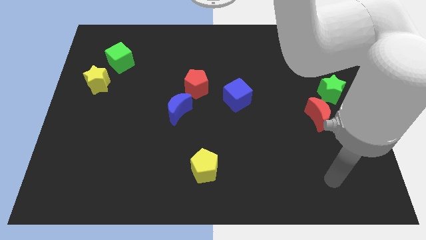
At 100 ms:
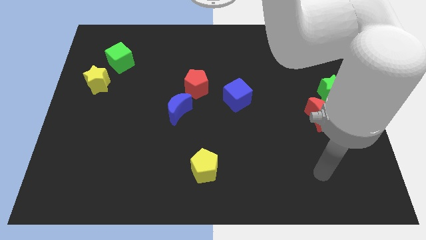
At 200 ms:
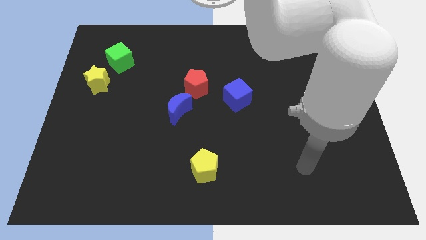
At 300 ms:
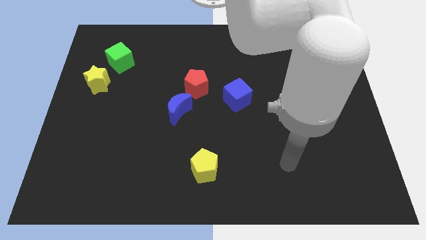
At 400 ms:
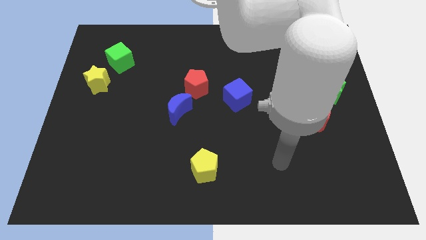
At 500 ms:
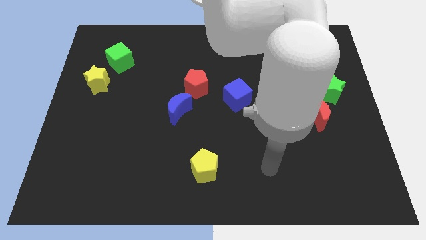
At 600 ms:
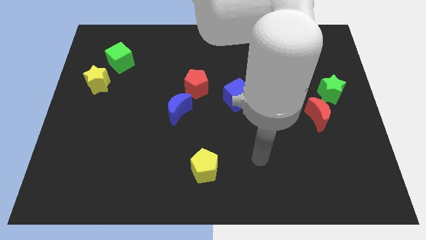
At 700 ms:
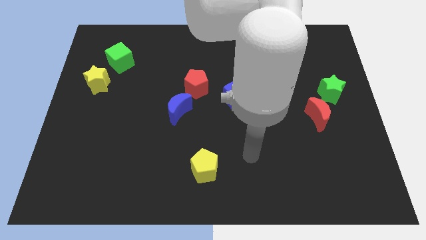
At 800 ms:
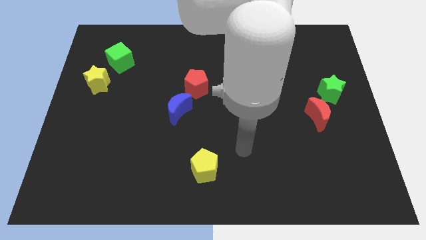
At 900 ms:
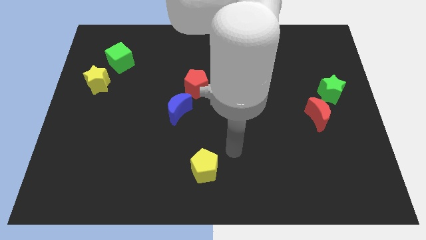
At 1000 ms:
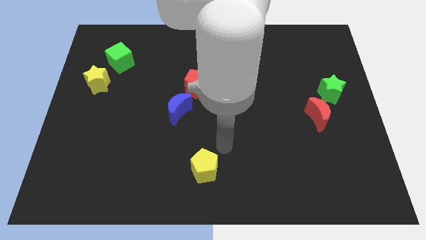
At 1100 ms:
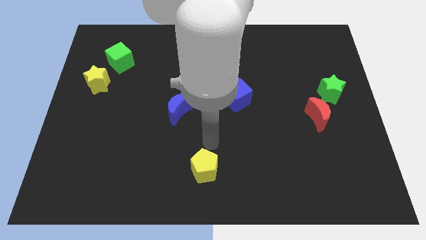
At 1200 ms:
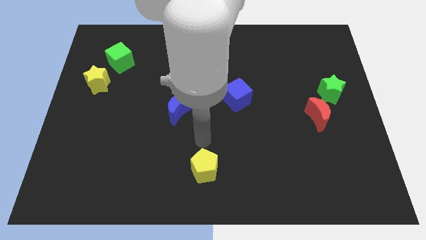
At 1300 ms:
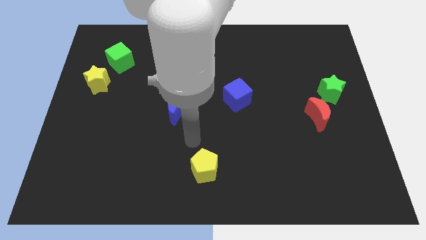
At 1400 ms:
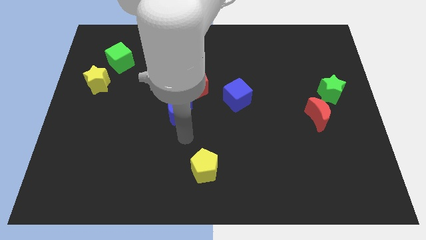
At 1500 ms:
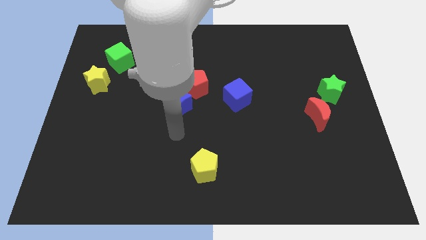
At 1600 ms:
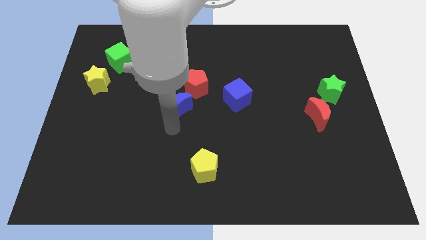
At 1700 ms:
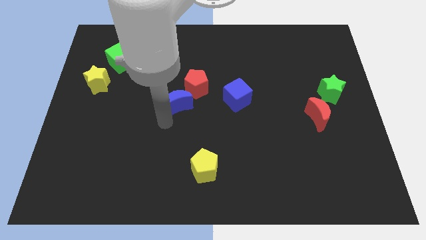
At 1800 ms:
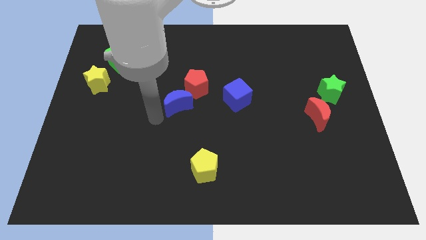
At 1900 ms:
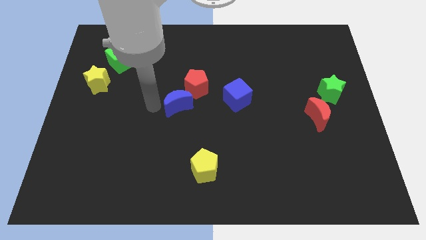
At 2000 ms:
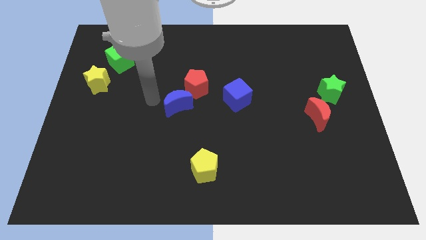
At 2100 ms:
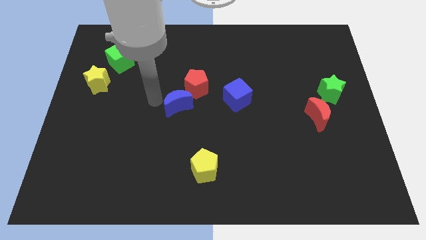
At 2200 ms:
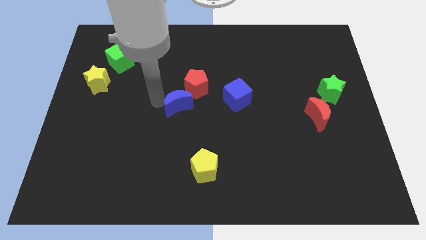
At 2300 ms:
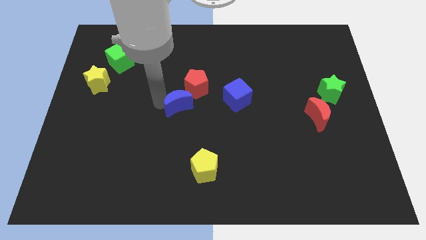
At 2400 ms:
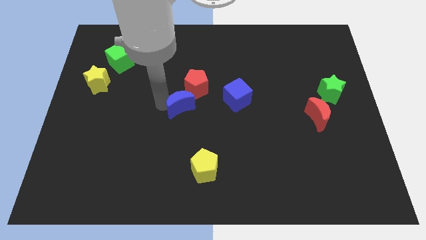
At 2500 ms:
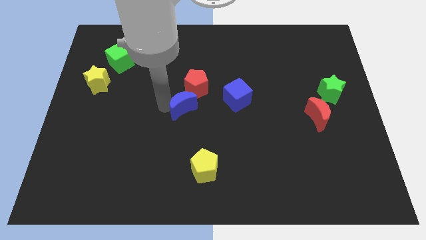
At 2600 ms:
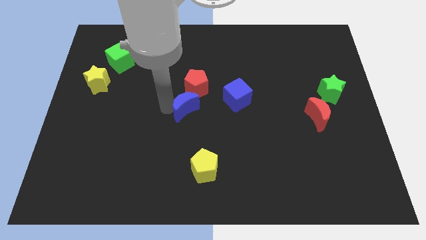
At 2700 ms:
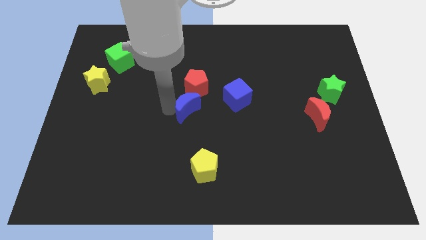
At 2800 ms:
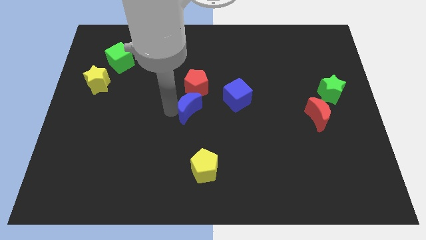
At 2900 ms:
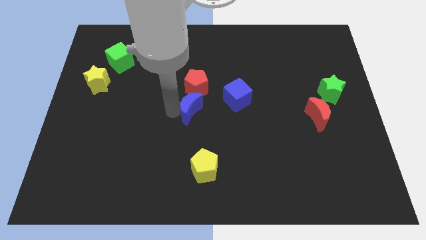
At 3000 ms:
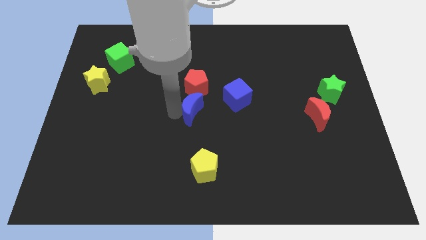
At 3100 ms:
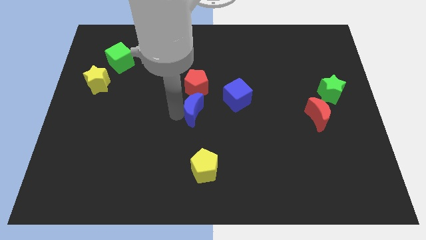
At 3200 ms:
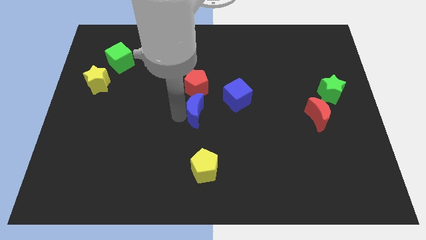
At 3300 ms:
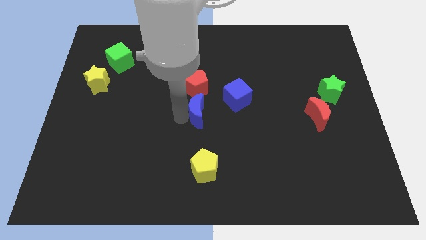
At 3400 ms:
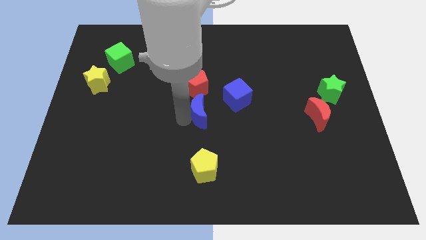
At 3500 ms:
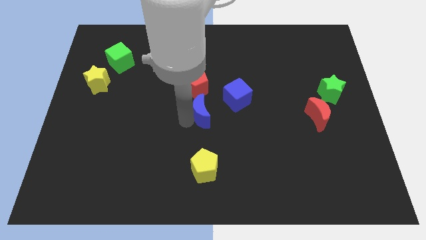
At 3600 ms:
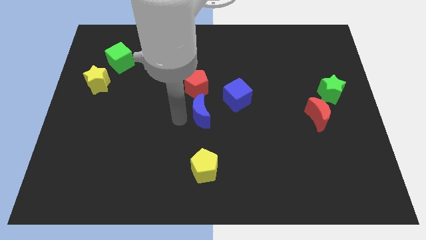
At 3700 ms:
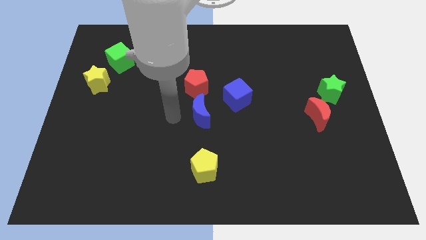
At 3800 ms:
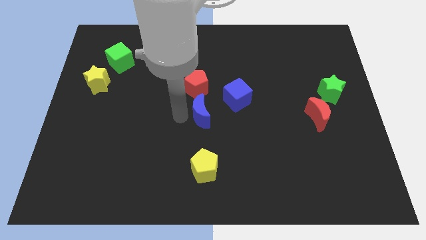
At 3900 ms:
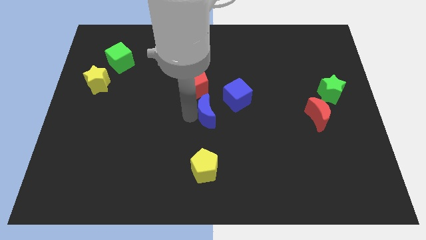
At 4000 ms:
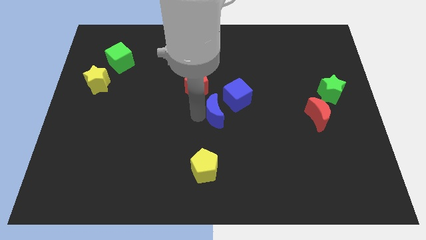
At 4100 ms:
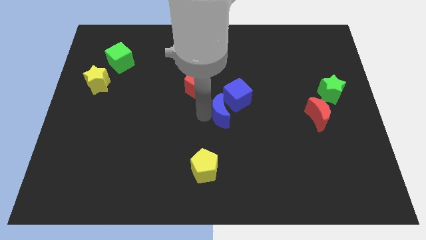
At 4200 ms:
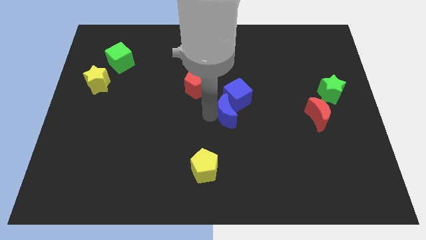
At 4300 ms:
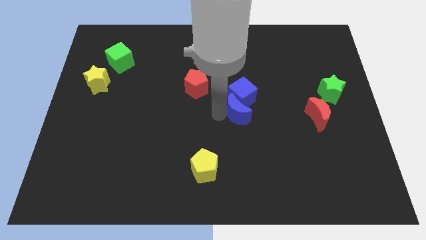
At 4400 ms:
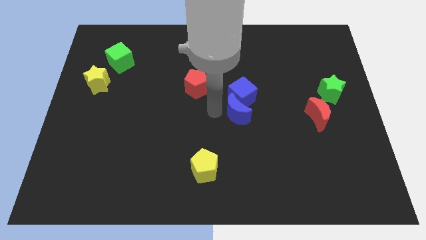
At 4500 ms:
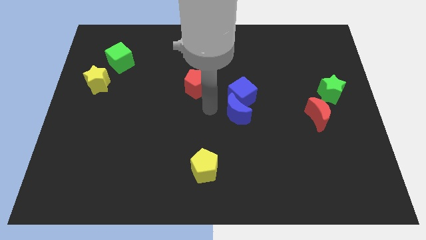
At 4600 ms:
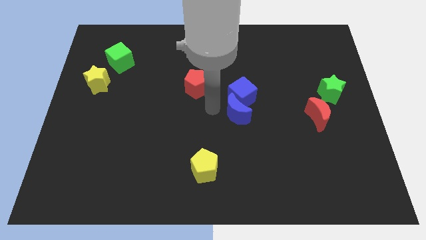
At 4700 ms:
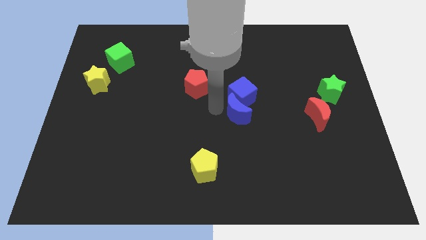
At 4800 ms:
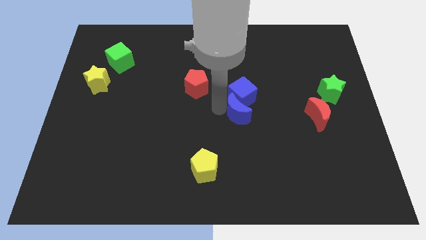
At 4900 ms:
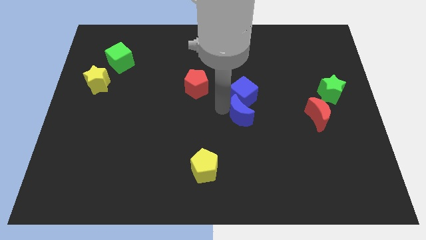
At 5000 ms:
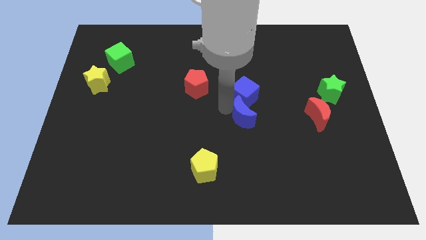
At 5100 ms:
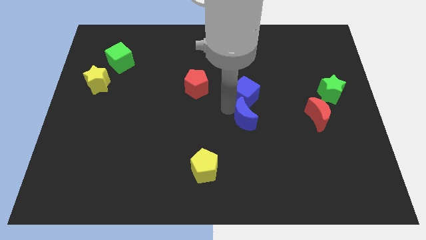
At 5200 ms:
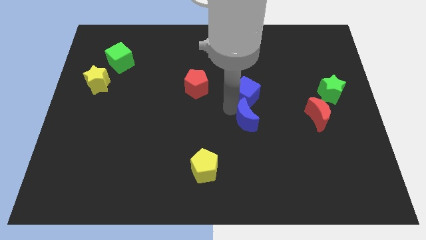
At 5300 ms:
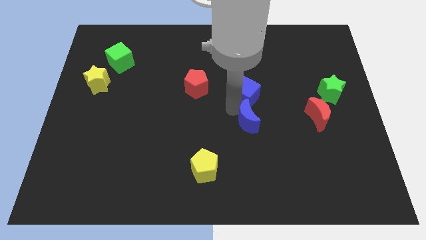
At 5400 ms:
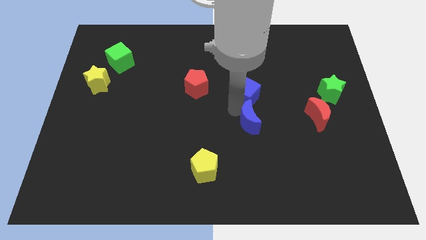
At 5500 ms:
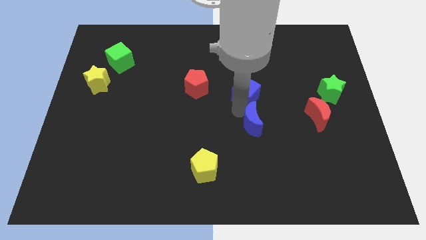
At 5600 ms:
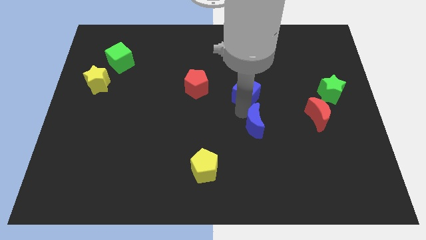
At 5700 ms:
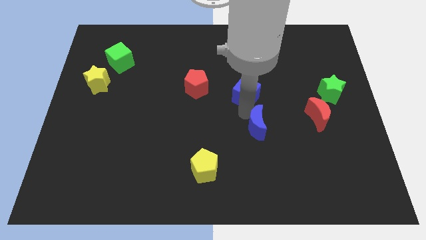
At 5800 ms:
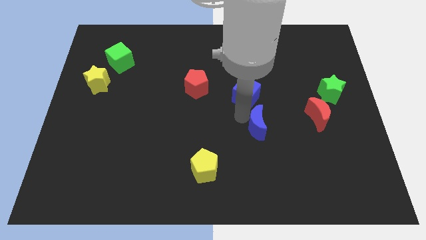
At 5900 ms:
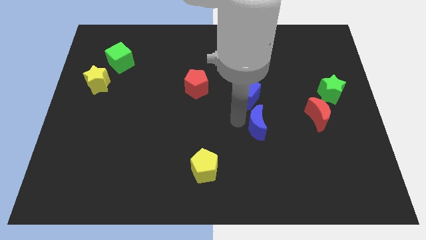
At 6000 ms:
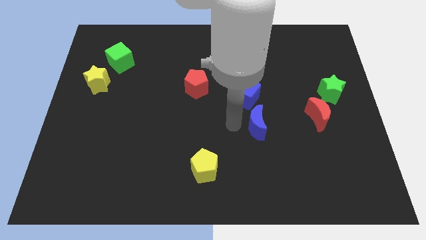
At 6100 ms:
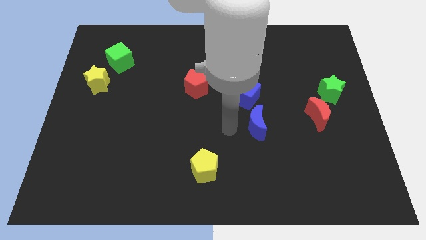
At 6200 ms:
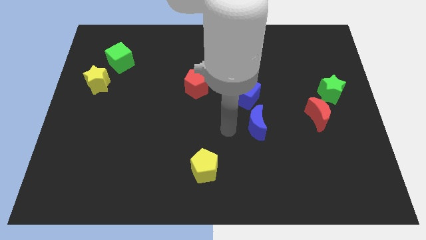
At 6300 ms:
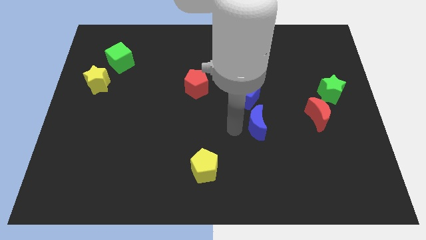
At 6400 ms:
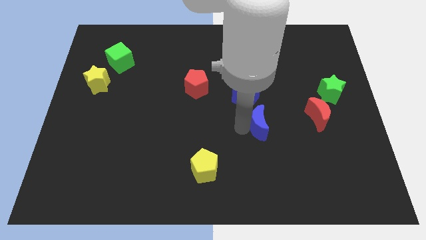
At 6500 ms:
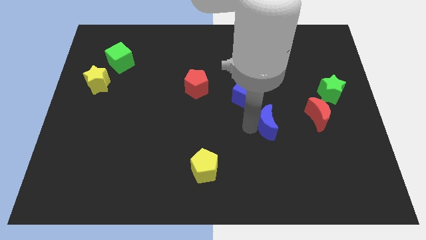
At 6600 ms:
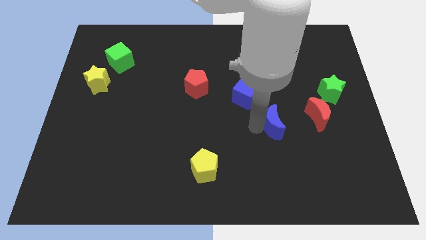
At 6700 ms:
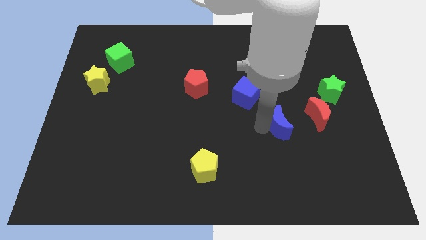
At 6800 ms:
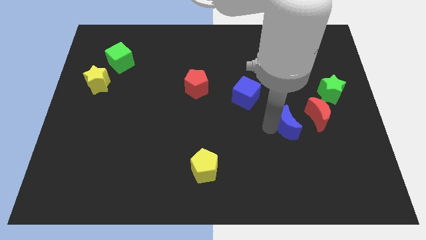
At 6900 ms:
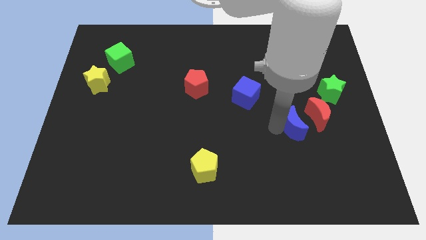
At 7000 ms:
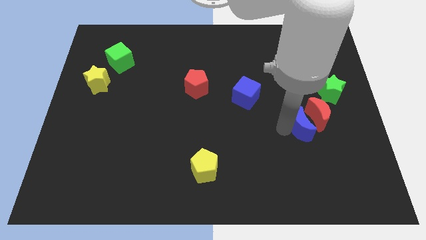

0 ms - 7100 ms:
move the blue moon towards the red moon
